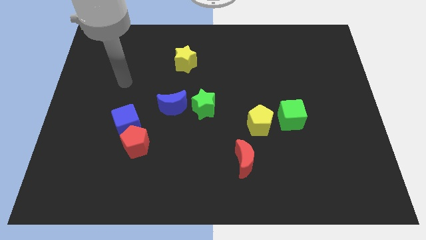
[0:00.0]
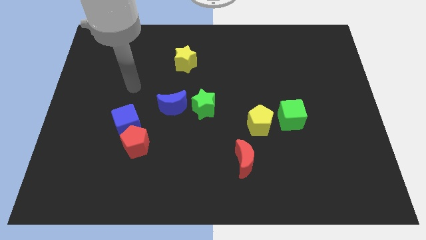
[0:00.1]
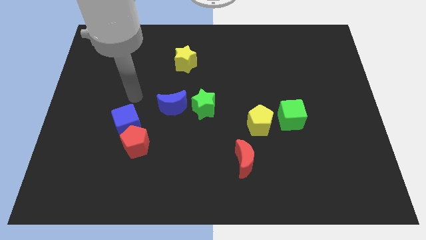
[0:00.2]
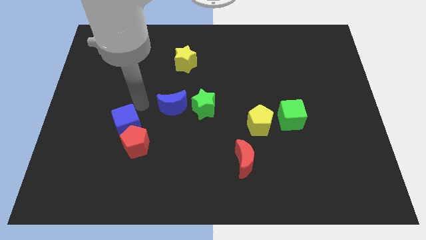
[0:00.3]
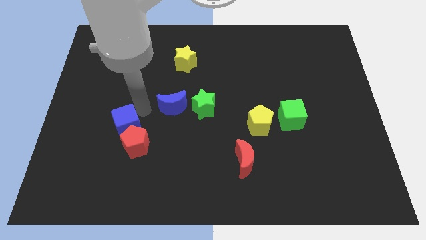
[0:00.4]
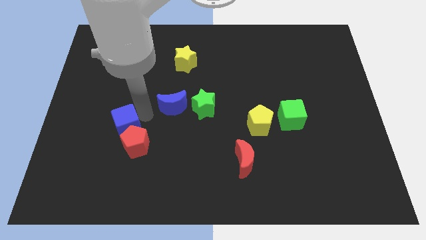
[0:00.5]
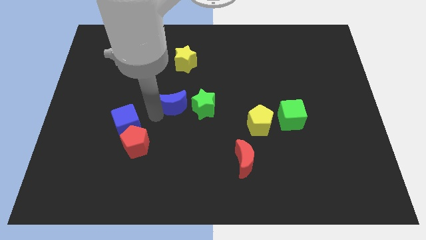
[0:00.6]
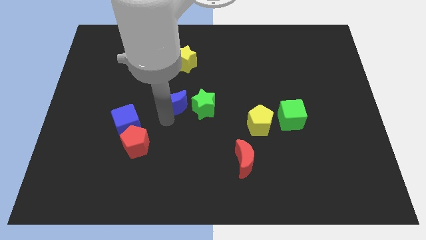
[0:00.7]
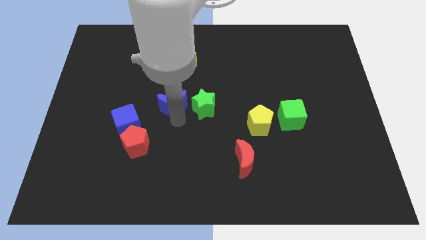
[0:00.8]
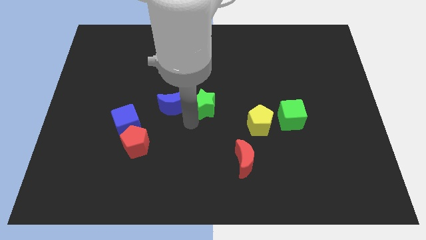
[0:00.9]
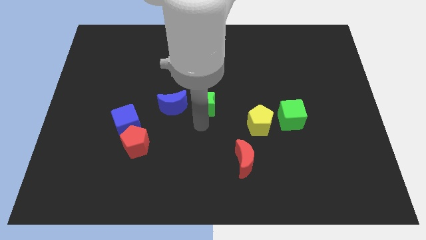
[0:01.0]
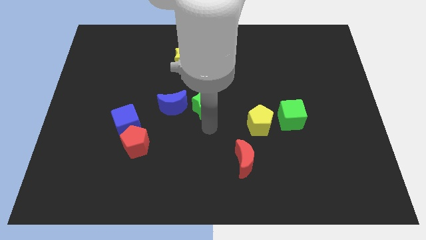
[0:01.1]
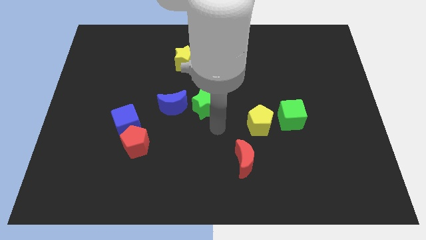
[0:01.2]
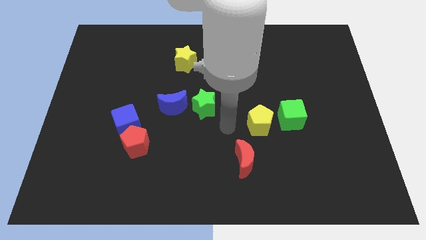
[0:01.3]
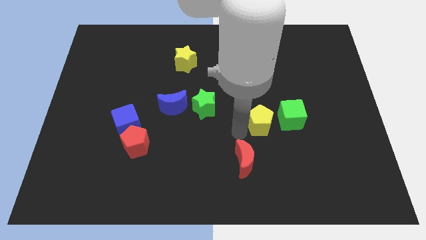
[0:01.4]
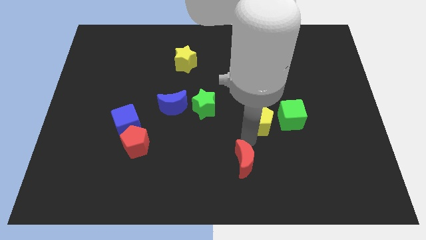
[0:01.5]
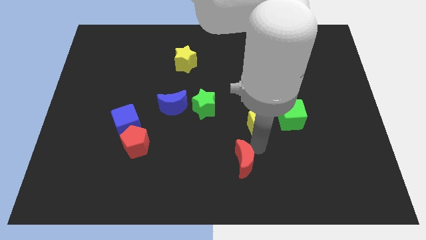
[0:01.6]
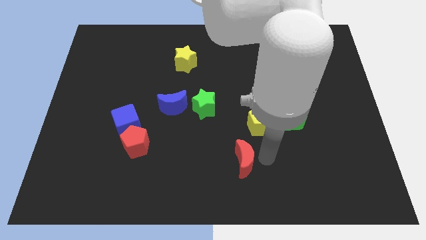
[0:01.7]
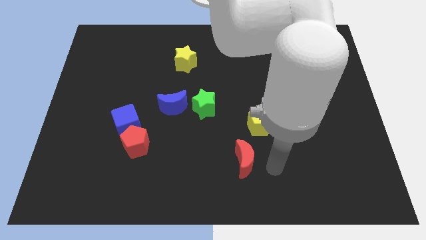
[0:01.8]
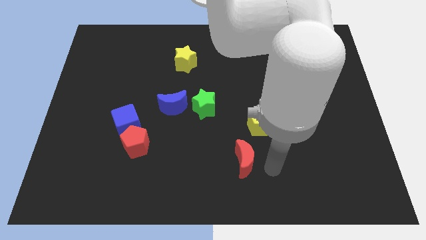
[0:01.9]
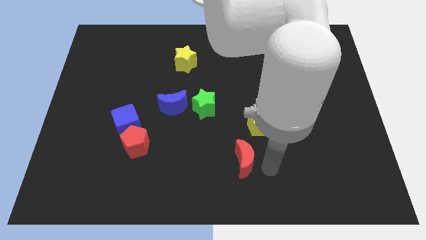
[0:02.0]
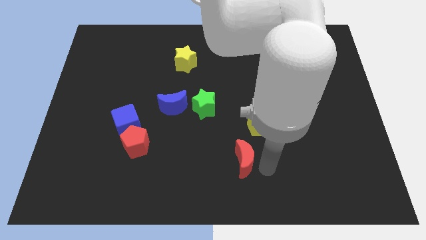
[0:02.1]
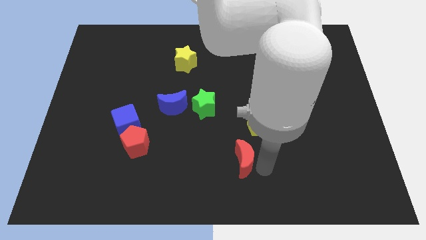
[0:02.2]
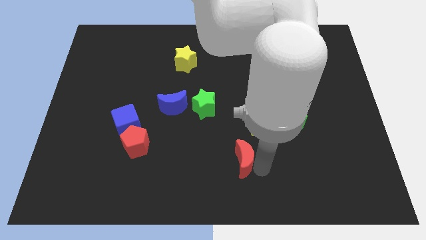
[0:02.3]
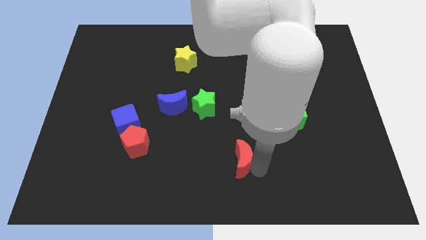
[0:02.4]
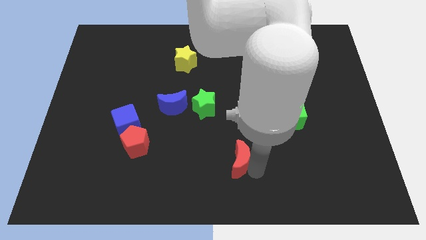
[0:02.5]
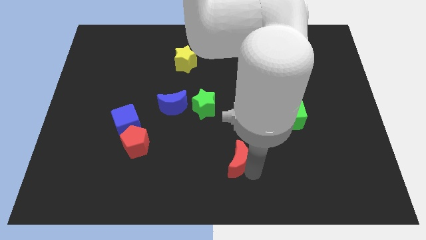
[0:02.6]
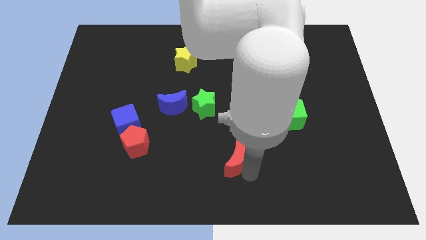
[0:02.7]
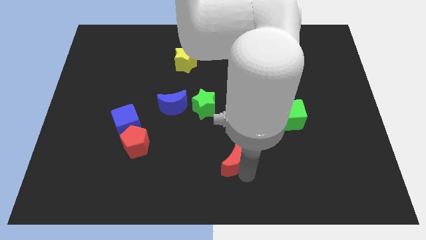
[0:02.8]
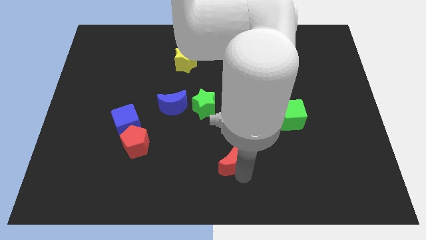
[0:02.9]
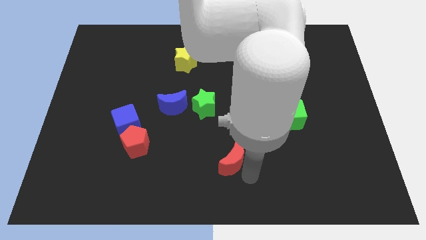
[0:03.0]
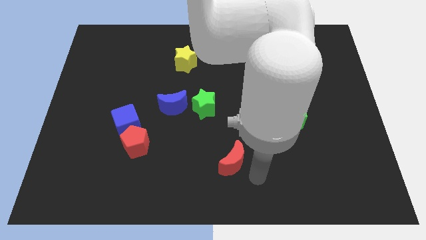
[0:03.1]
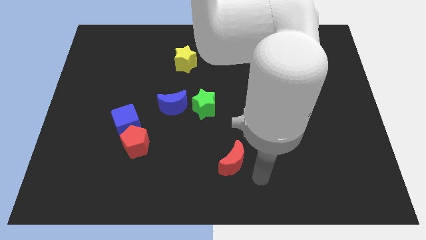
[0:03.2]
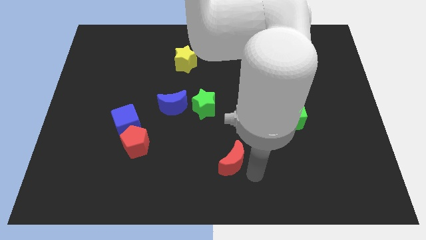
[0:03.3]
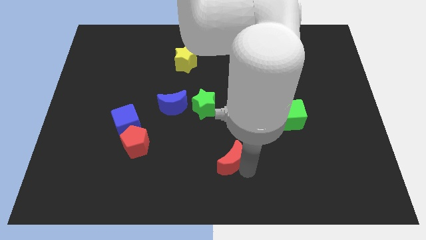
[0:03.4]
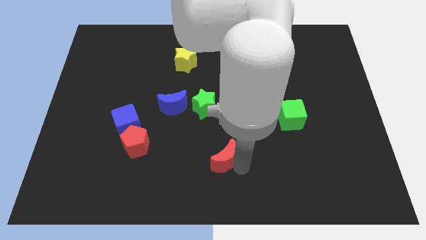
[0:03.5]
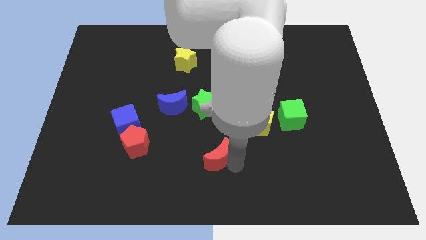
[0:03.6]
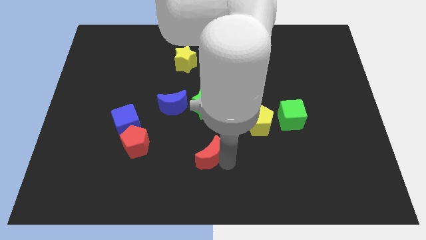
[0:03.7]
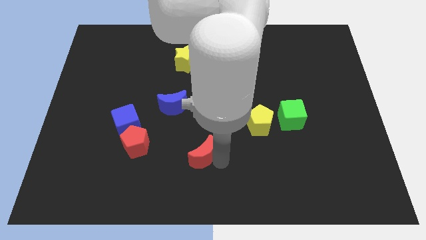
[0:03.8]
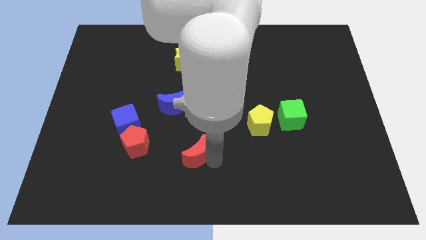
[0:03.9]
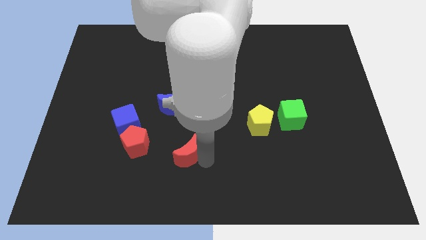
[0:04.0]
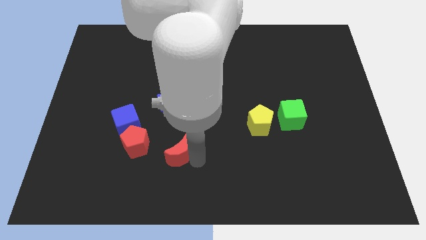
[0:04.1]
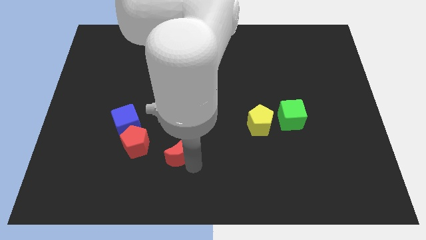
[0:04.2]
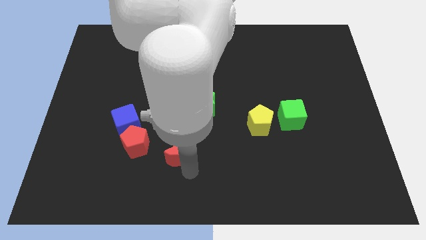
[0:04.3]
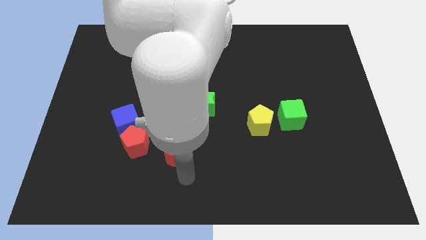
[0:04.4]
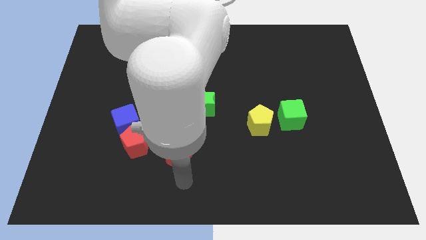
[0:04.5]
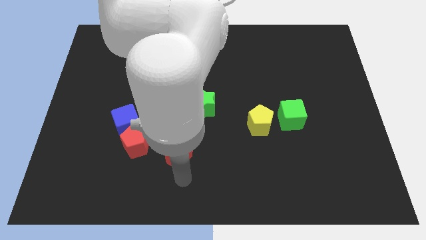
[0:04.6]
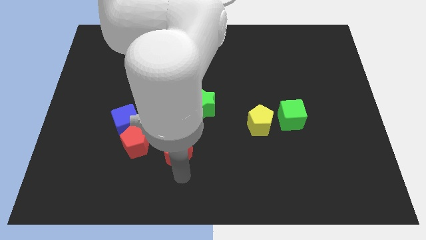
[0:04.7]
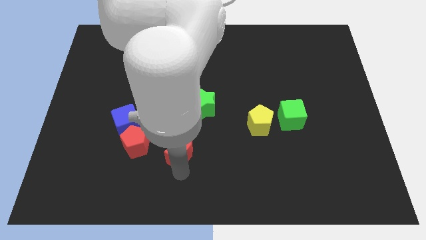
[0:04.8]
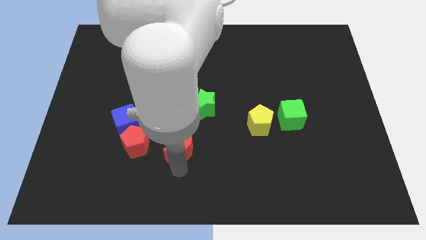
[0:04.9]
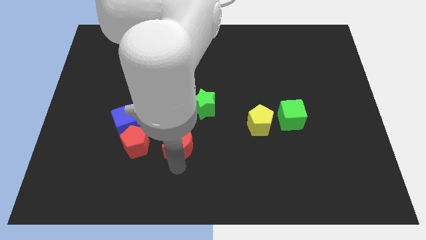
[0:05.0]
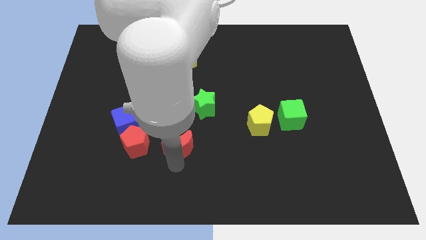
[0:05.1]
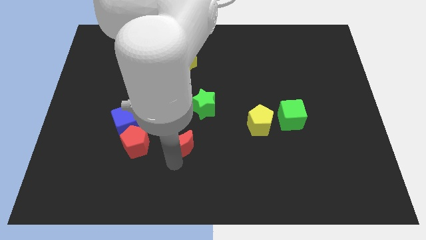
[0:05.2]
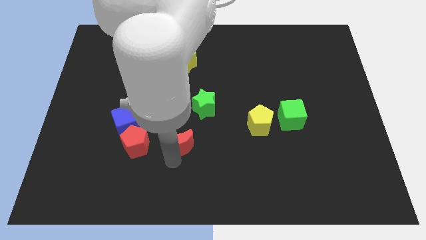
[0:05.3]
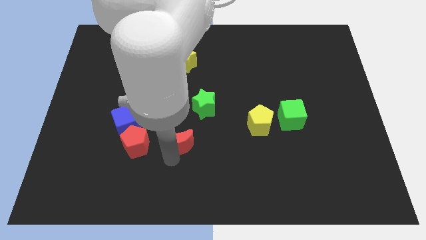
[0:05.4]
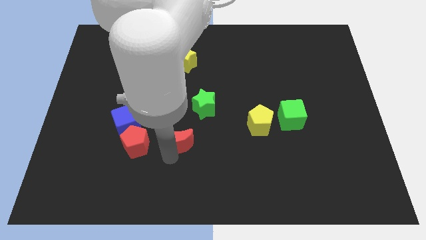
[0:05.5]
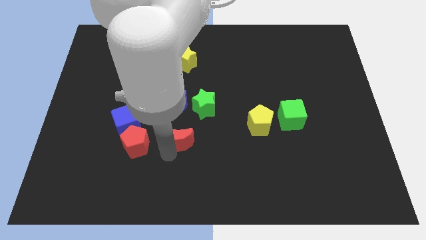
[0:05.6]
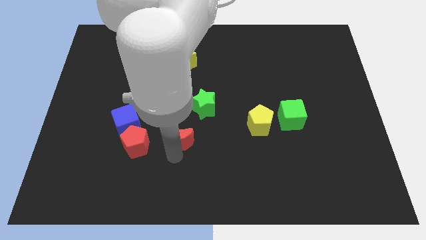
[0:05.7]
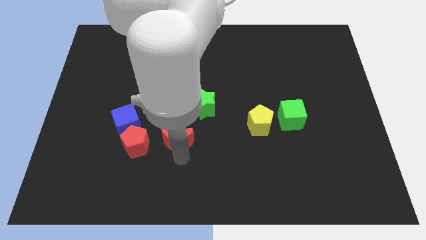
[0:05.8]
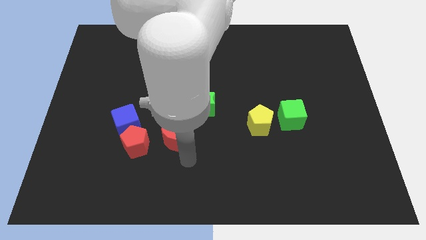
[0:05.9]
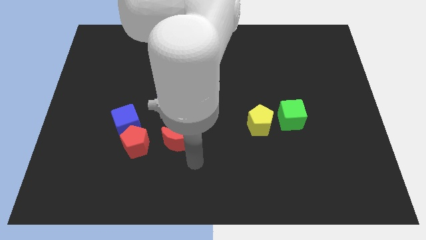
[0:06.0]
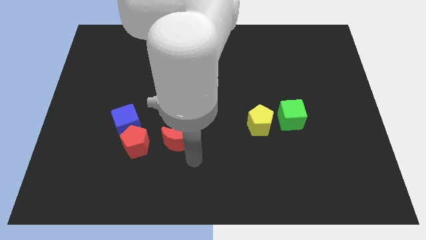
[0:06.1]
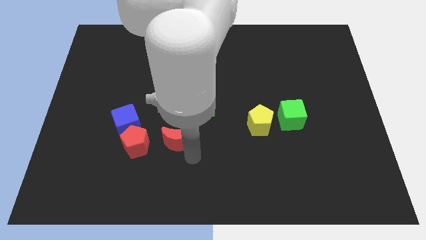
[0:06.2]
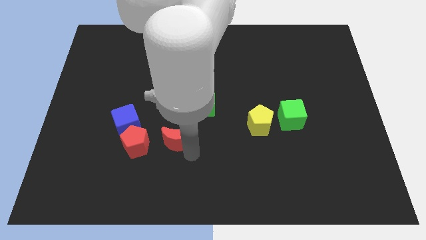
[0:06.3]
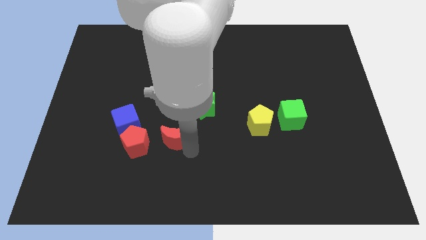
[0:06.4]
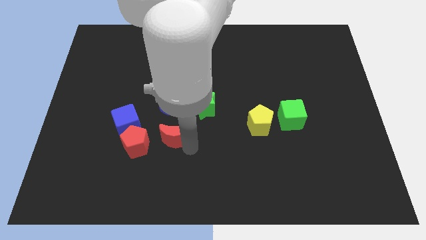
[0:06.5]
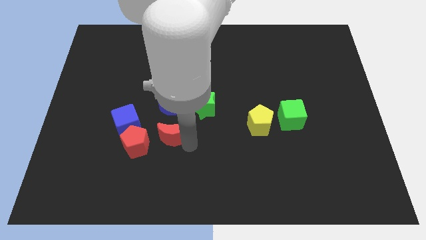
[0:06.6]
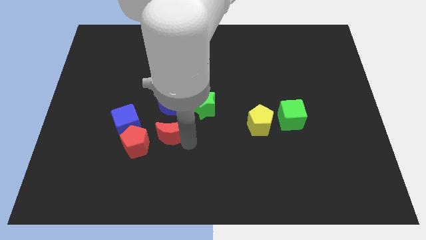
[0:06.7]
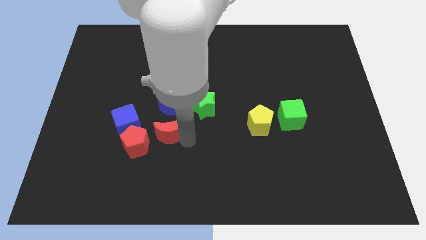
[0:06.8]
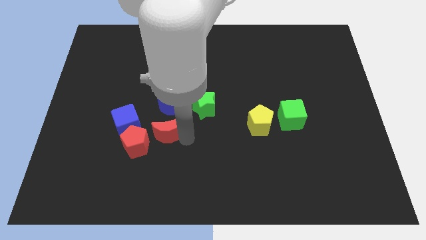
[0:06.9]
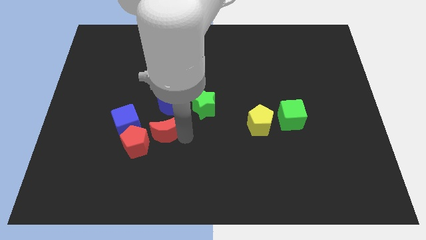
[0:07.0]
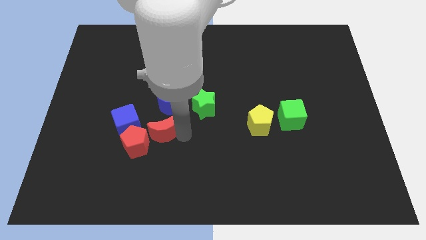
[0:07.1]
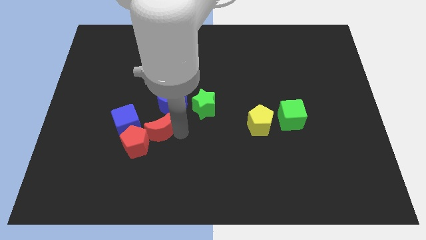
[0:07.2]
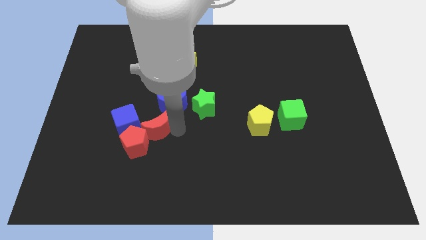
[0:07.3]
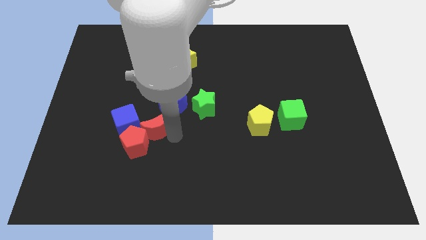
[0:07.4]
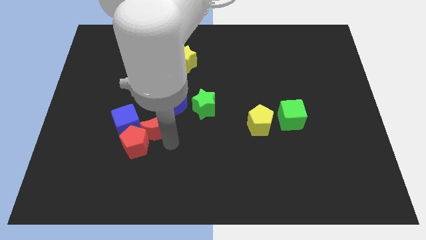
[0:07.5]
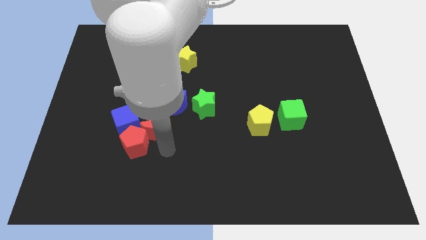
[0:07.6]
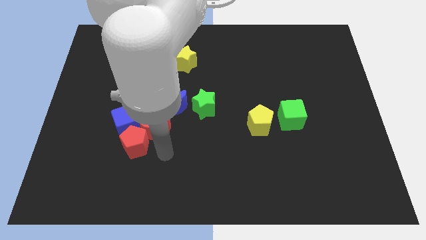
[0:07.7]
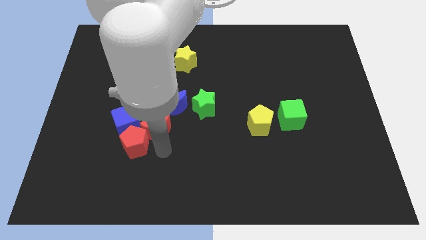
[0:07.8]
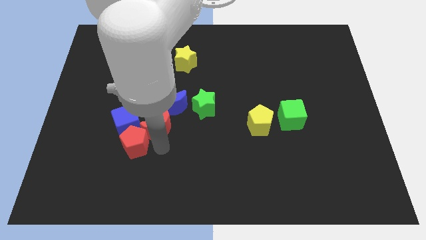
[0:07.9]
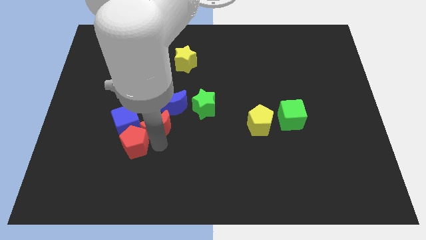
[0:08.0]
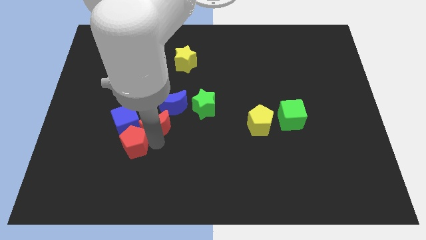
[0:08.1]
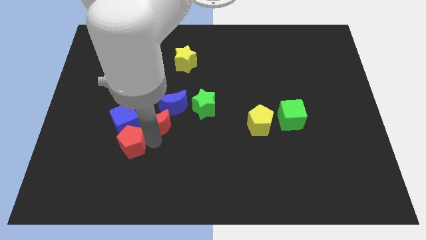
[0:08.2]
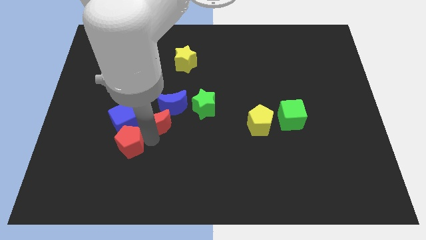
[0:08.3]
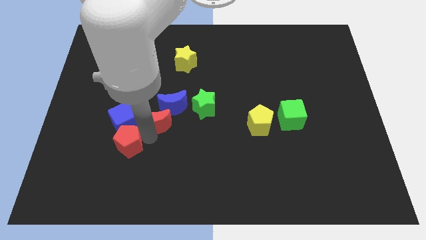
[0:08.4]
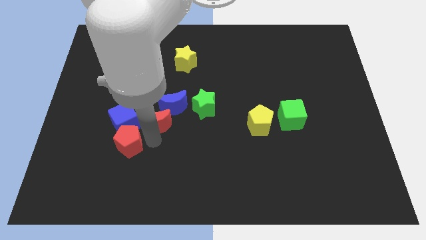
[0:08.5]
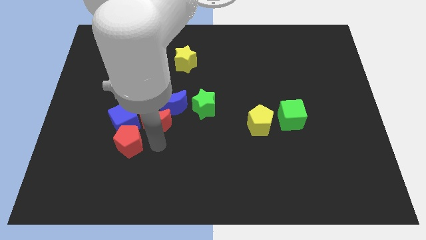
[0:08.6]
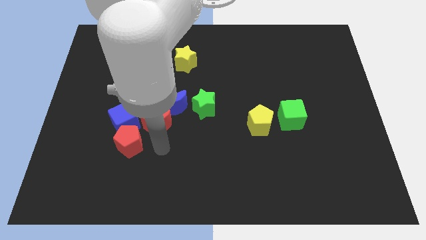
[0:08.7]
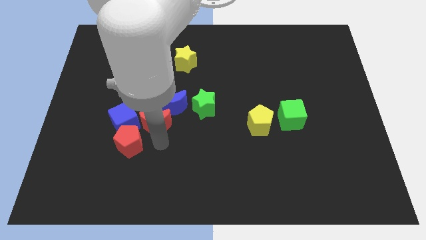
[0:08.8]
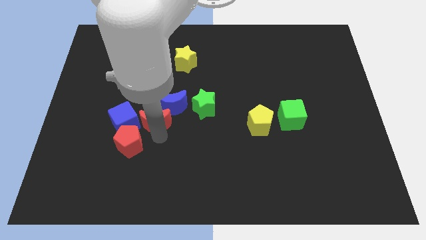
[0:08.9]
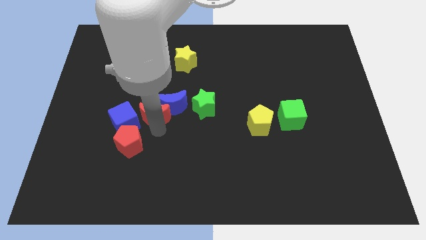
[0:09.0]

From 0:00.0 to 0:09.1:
push the red moon upwards and left diagonally
